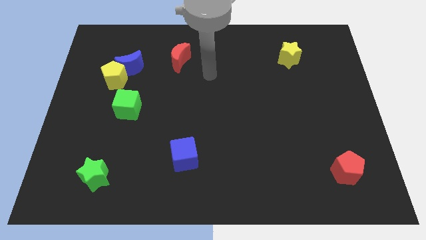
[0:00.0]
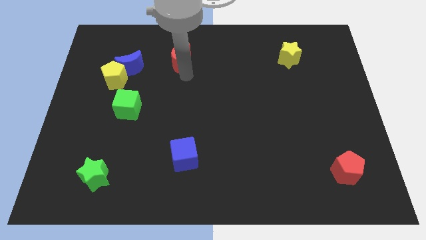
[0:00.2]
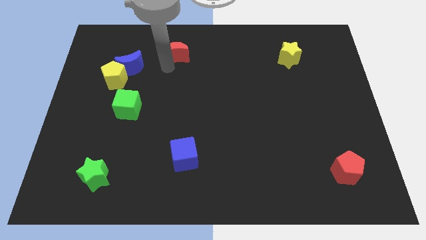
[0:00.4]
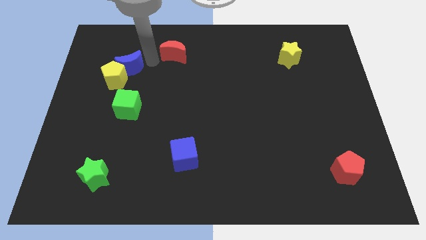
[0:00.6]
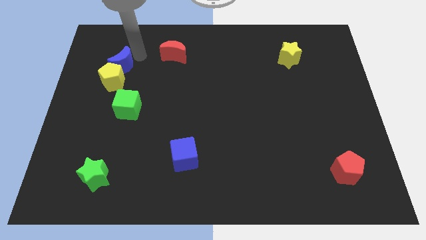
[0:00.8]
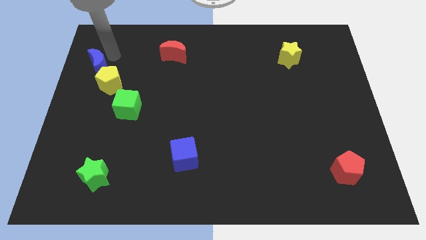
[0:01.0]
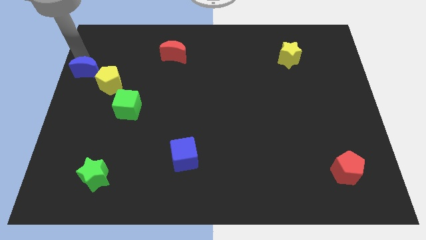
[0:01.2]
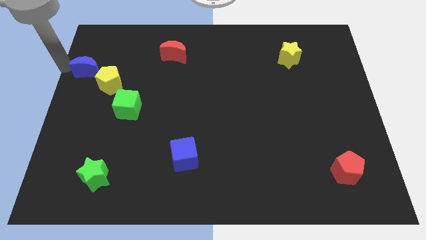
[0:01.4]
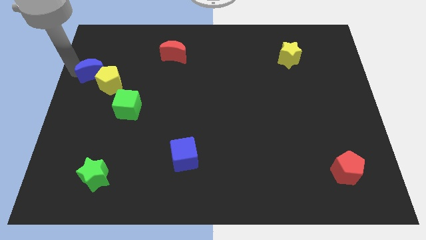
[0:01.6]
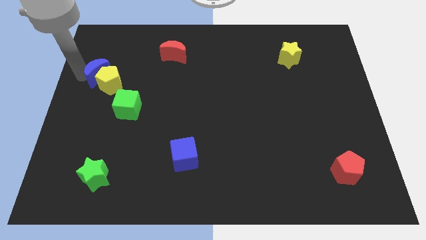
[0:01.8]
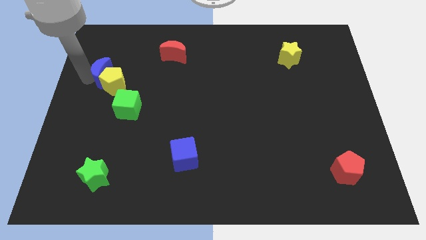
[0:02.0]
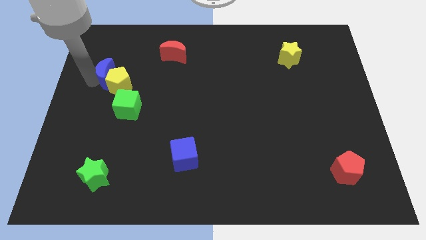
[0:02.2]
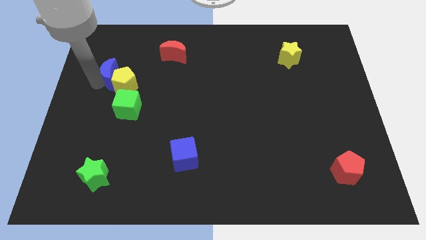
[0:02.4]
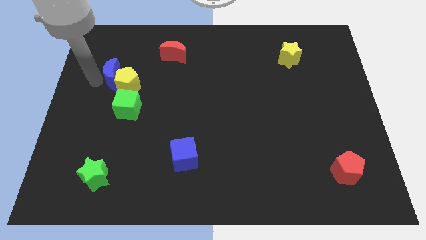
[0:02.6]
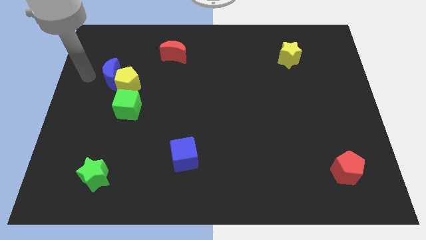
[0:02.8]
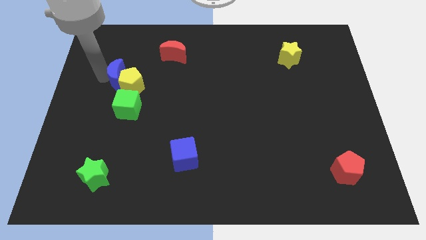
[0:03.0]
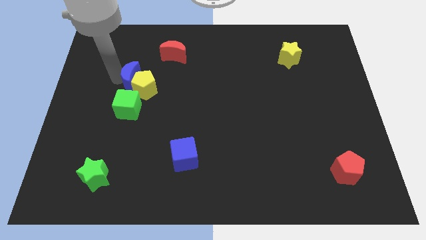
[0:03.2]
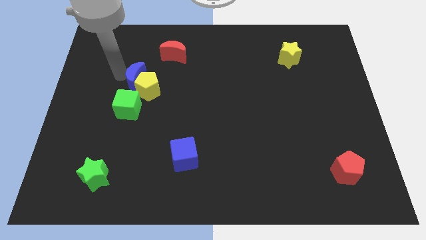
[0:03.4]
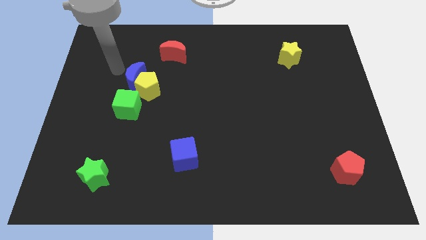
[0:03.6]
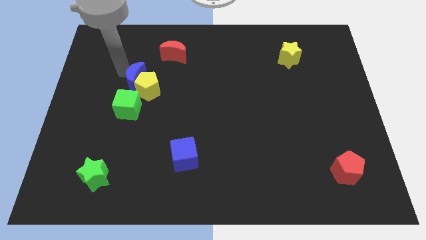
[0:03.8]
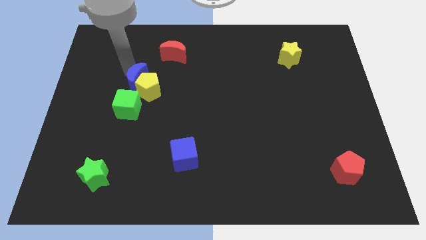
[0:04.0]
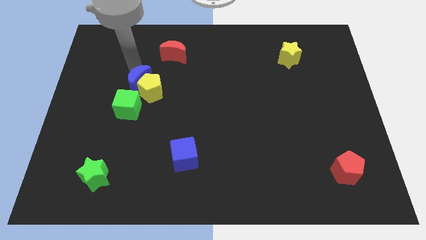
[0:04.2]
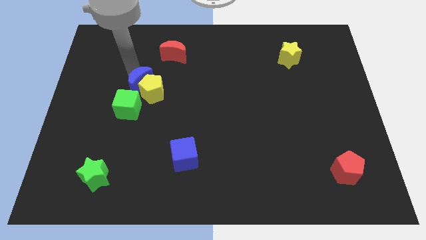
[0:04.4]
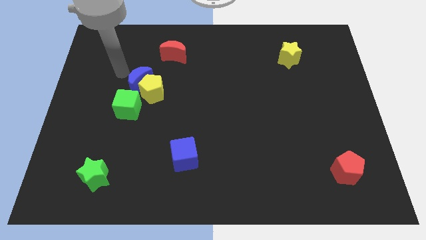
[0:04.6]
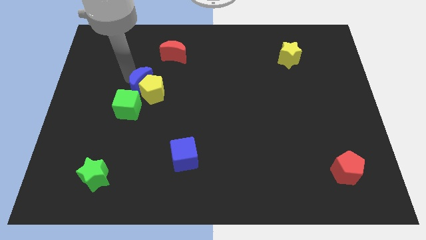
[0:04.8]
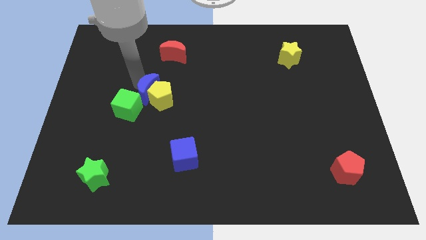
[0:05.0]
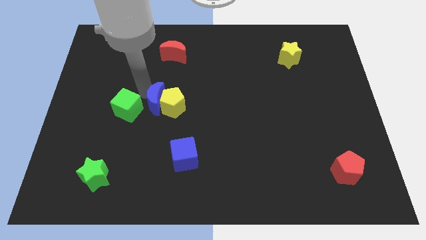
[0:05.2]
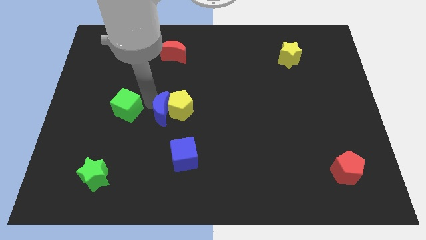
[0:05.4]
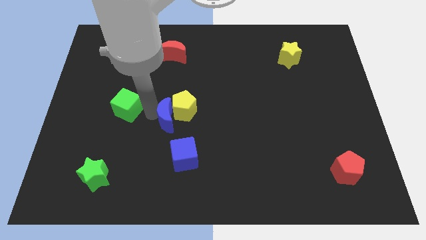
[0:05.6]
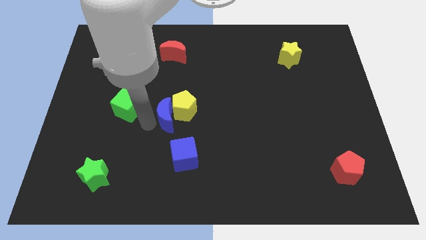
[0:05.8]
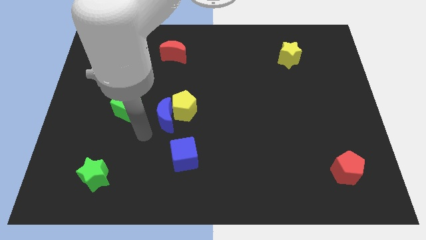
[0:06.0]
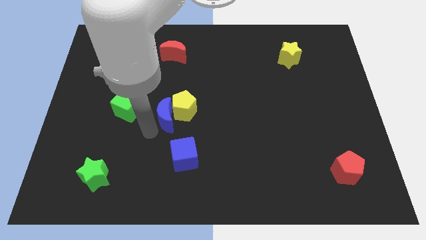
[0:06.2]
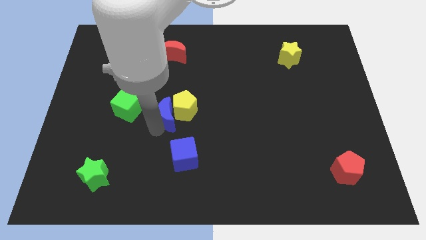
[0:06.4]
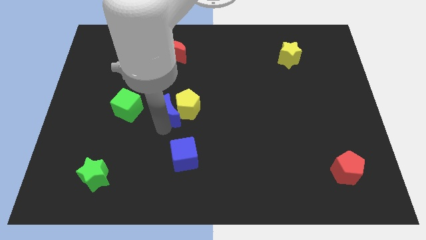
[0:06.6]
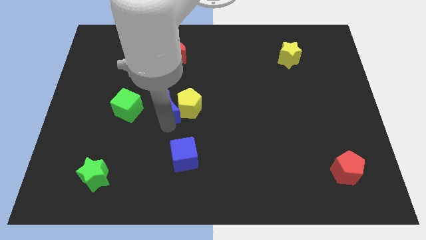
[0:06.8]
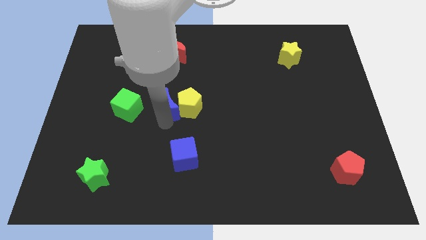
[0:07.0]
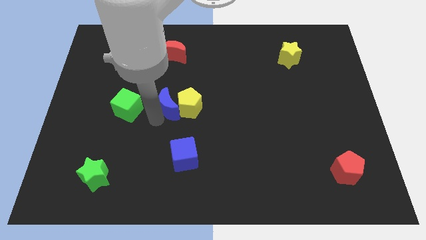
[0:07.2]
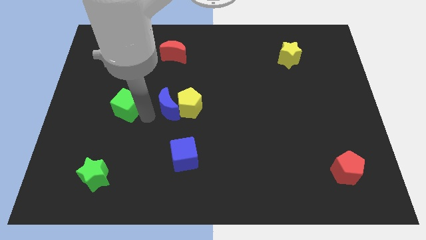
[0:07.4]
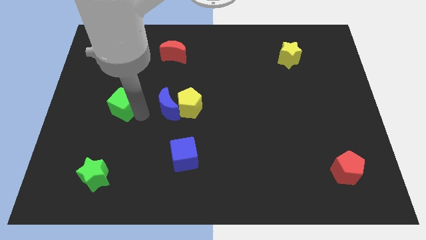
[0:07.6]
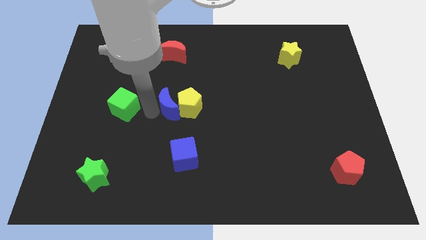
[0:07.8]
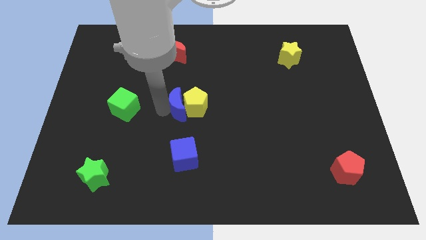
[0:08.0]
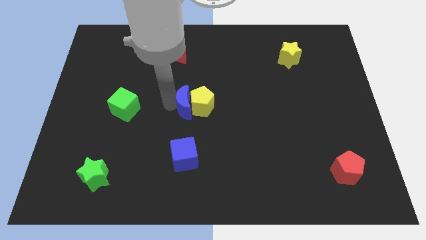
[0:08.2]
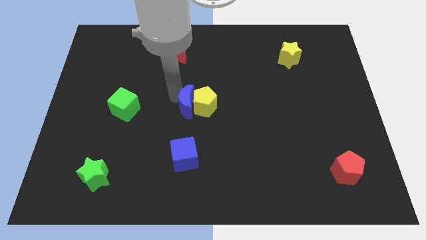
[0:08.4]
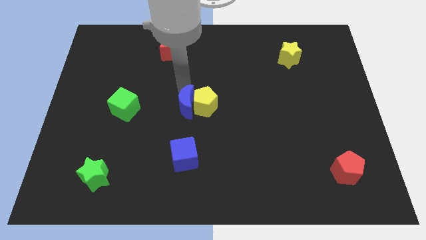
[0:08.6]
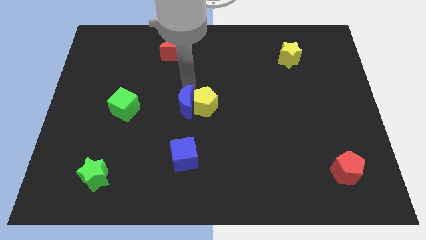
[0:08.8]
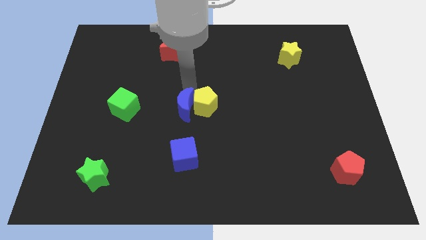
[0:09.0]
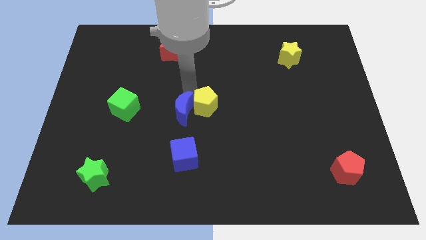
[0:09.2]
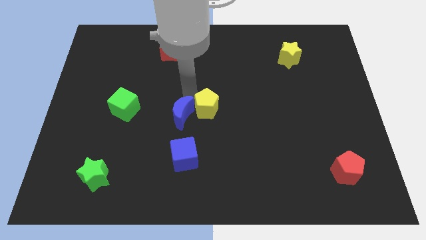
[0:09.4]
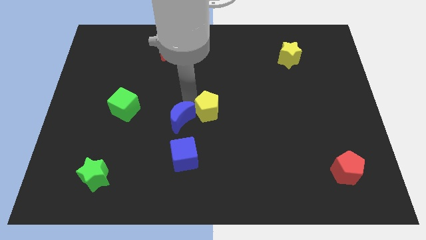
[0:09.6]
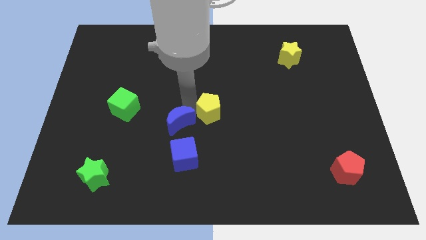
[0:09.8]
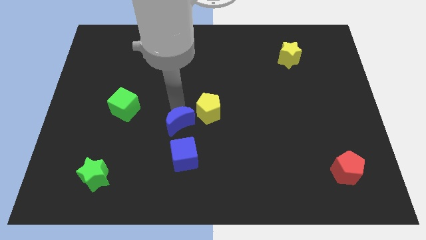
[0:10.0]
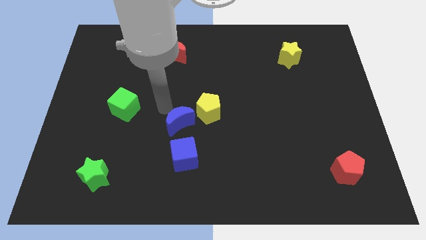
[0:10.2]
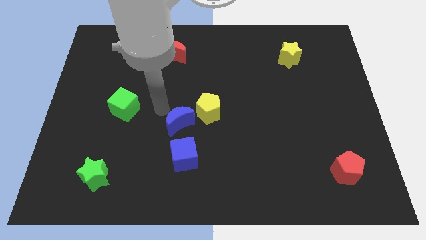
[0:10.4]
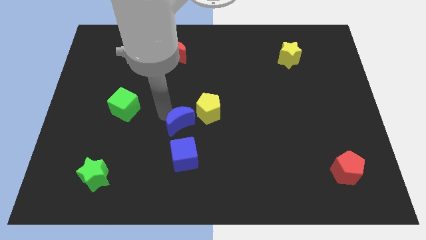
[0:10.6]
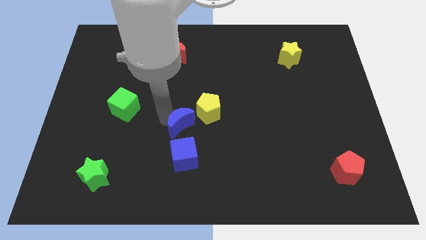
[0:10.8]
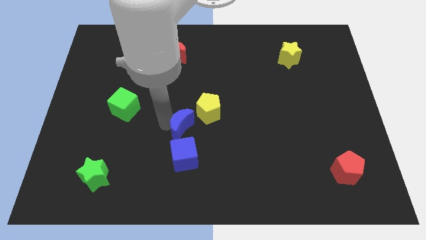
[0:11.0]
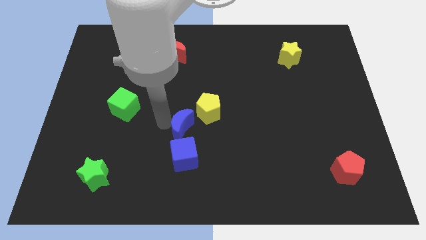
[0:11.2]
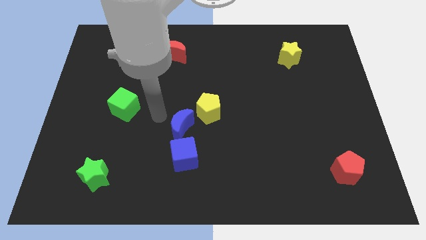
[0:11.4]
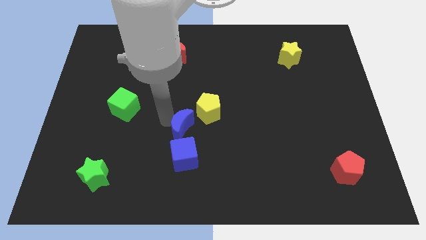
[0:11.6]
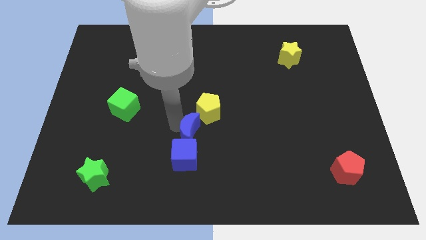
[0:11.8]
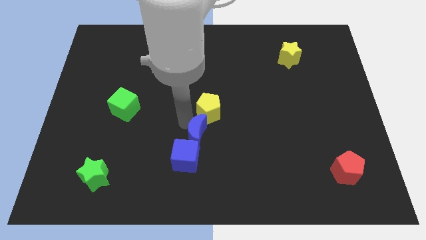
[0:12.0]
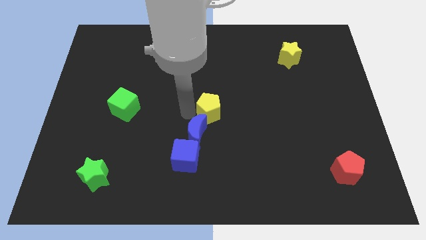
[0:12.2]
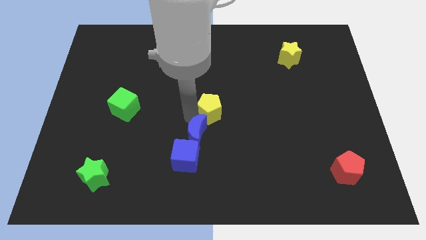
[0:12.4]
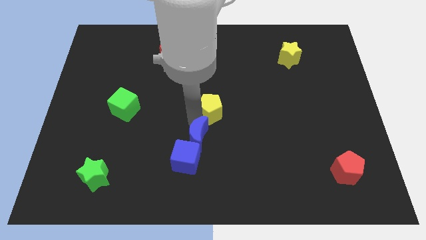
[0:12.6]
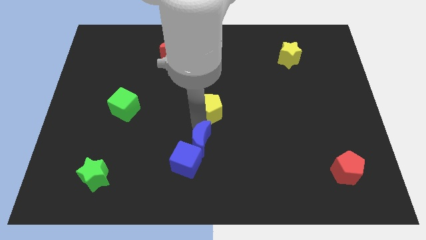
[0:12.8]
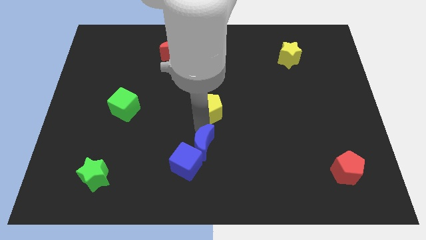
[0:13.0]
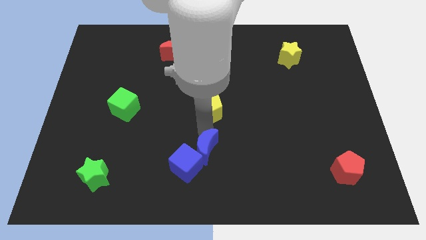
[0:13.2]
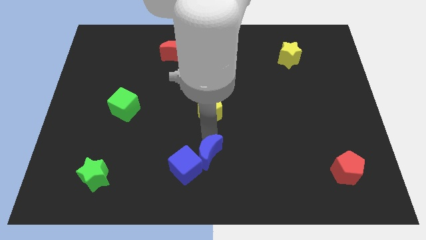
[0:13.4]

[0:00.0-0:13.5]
push the blue moon to the bottom

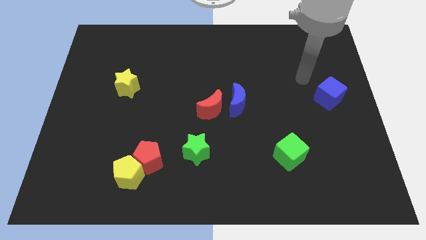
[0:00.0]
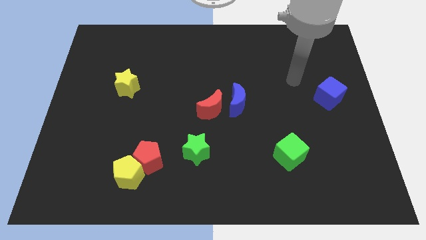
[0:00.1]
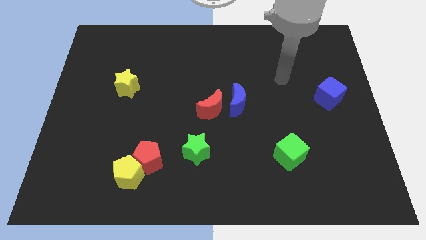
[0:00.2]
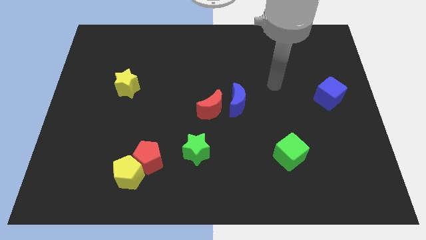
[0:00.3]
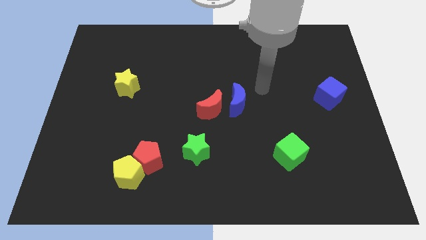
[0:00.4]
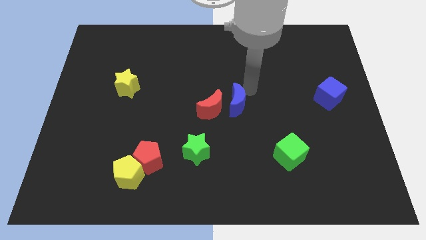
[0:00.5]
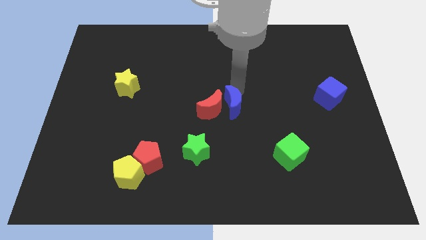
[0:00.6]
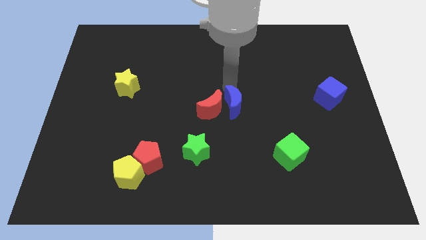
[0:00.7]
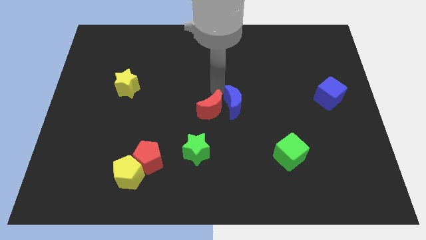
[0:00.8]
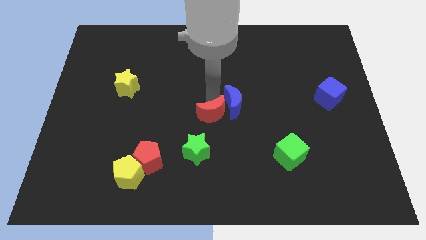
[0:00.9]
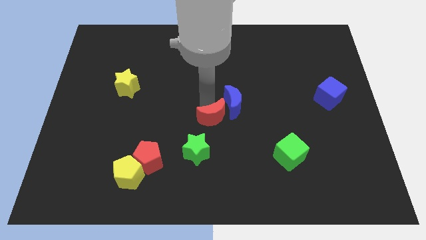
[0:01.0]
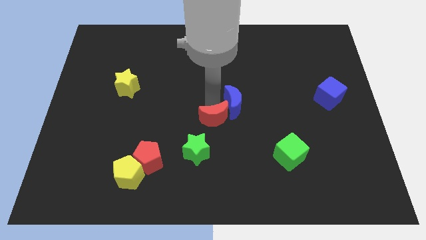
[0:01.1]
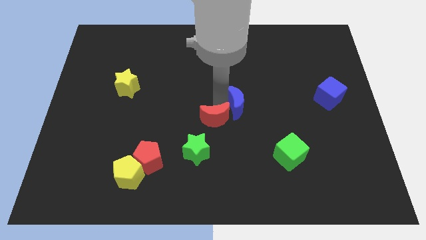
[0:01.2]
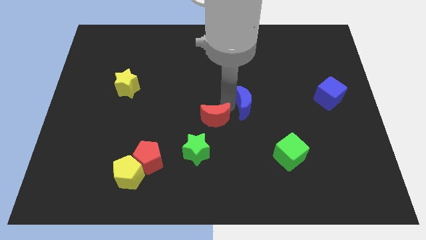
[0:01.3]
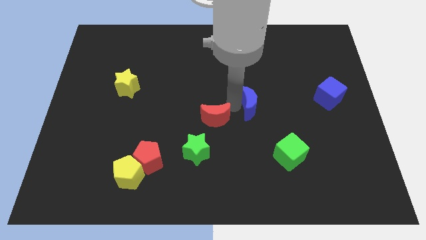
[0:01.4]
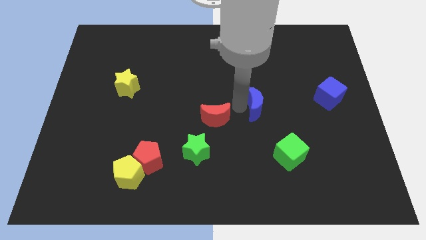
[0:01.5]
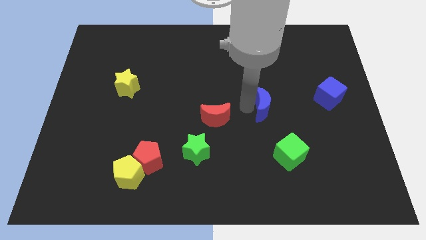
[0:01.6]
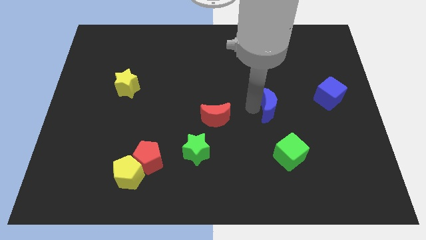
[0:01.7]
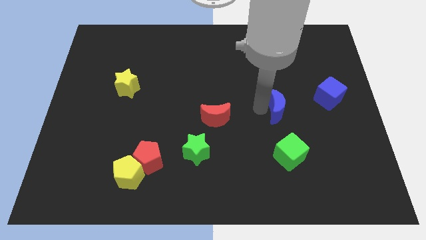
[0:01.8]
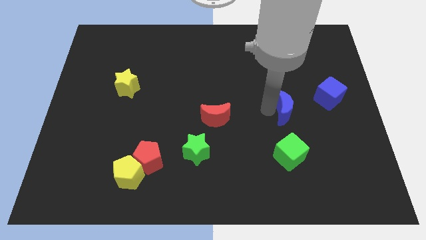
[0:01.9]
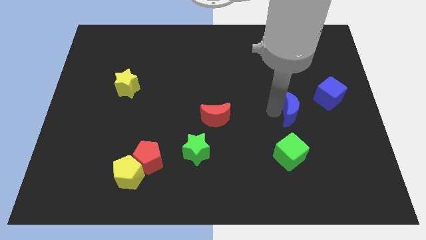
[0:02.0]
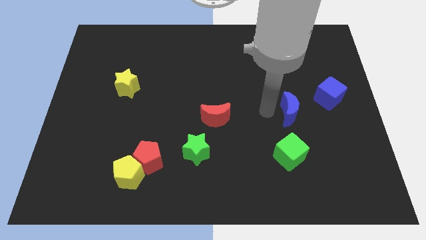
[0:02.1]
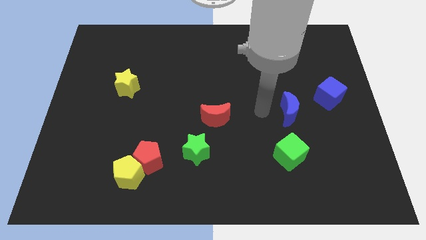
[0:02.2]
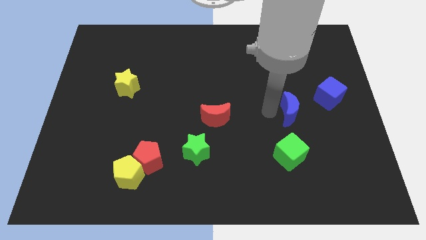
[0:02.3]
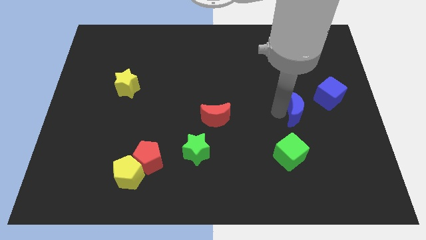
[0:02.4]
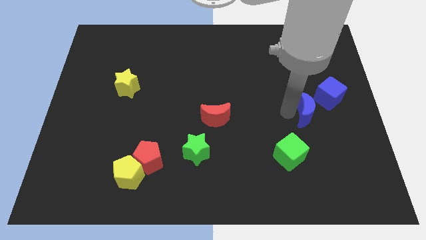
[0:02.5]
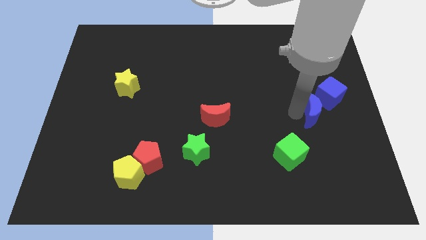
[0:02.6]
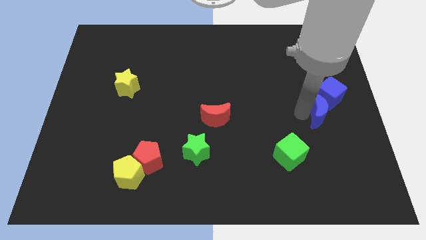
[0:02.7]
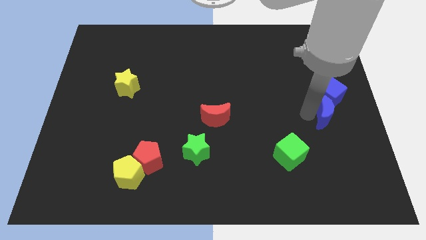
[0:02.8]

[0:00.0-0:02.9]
move the blue moon to the right side of the board
